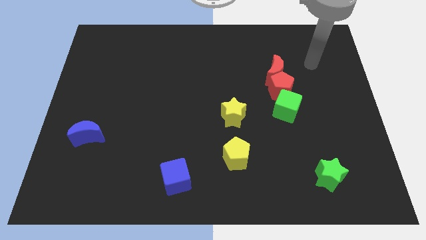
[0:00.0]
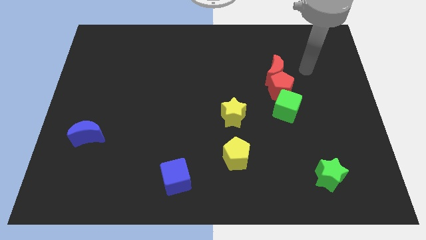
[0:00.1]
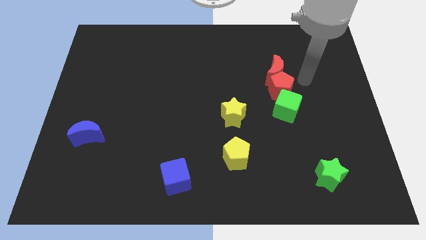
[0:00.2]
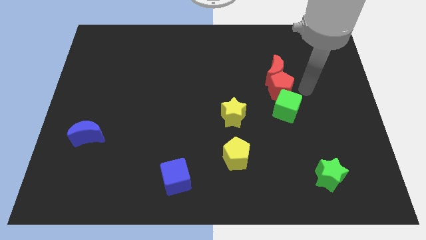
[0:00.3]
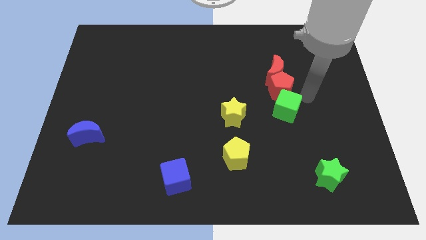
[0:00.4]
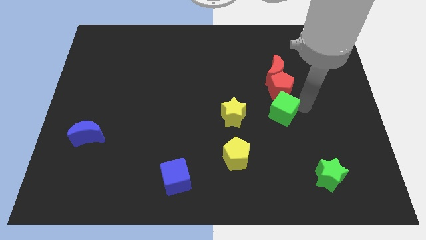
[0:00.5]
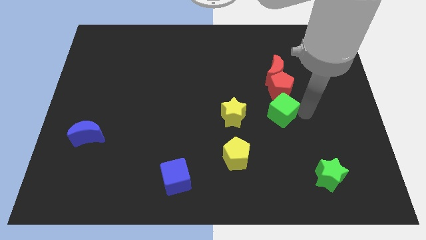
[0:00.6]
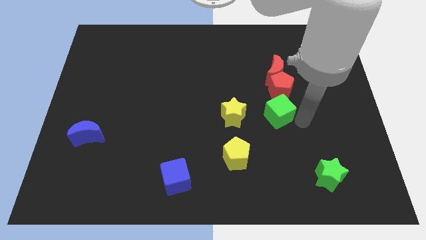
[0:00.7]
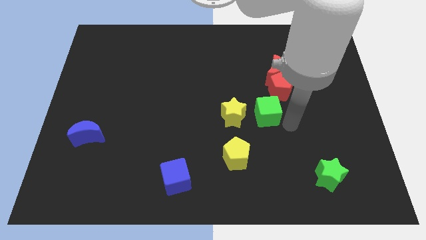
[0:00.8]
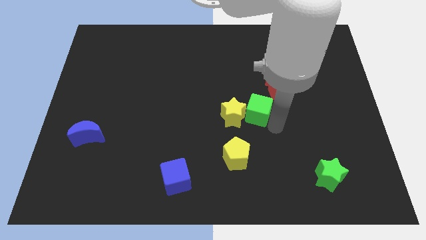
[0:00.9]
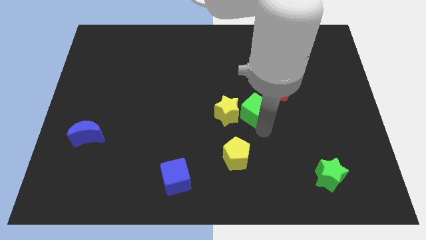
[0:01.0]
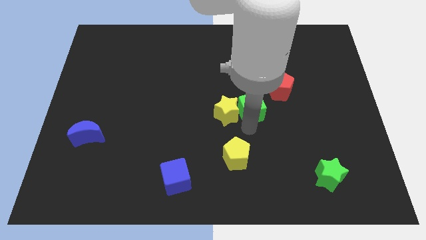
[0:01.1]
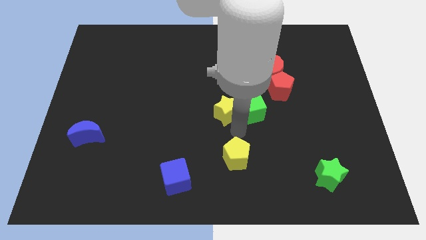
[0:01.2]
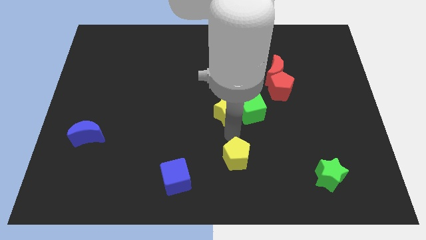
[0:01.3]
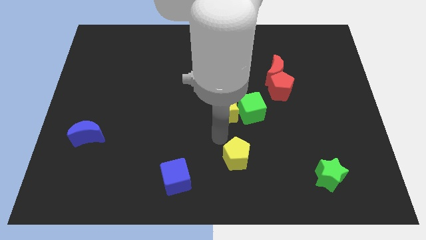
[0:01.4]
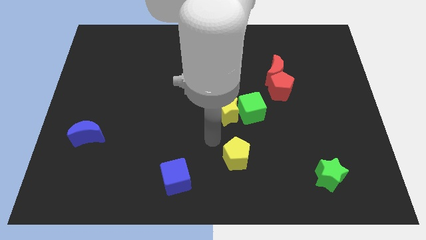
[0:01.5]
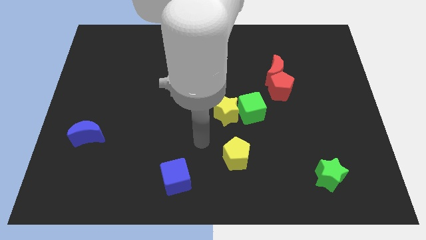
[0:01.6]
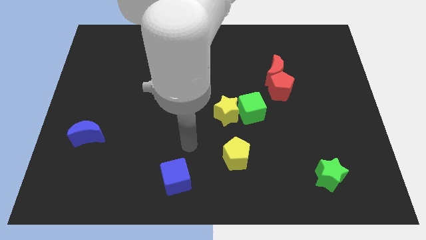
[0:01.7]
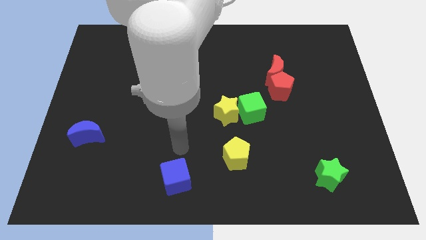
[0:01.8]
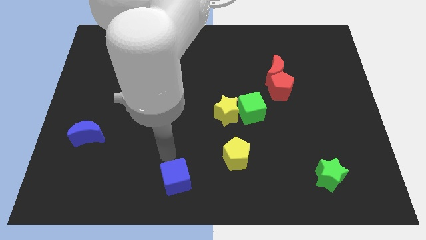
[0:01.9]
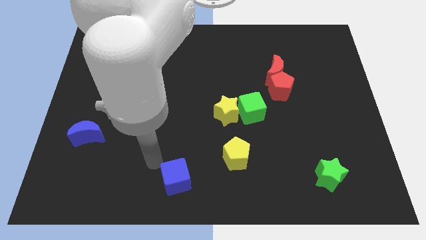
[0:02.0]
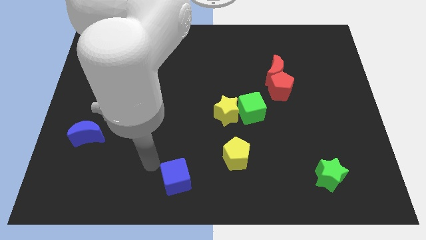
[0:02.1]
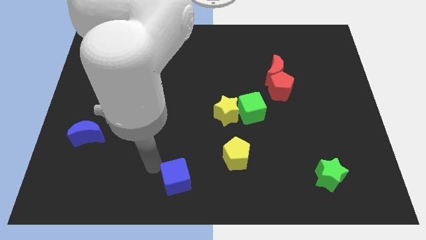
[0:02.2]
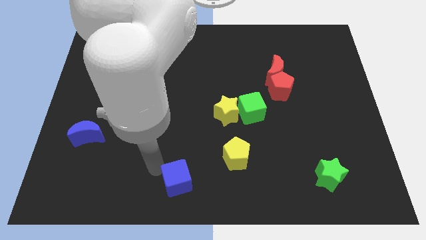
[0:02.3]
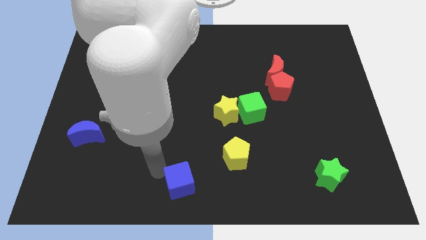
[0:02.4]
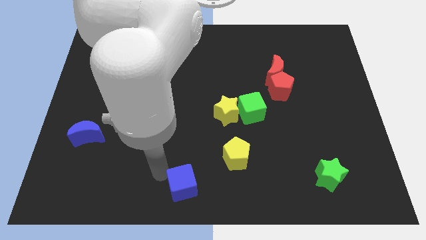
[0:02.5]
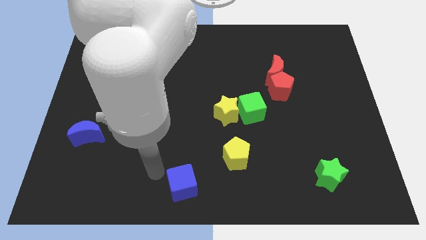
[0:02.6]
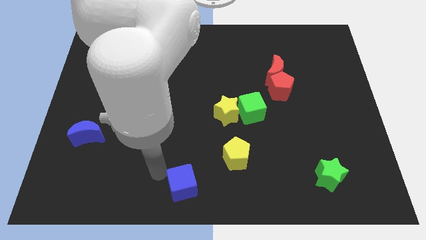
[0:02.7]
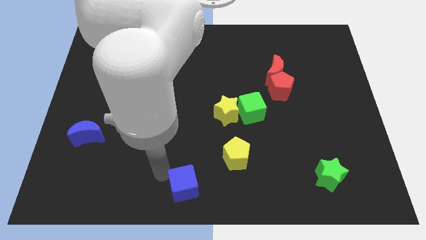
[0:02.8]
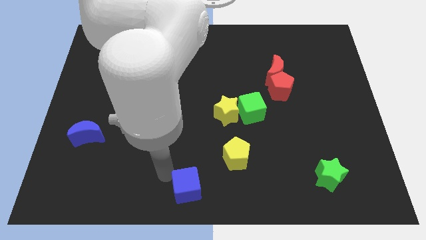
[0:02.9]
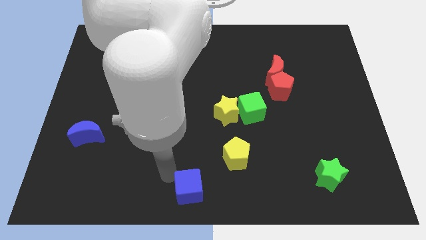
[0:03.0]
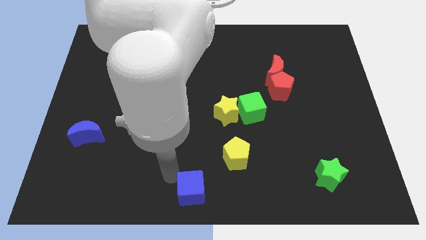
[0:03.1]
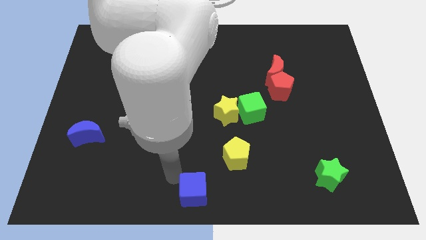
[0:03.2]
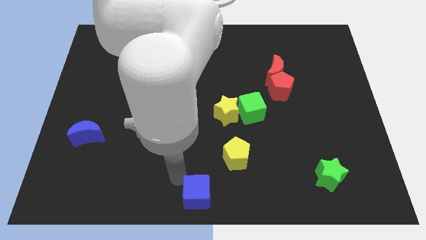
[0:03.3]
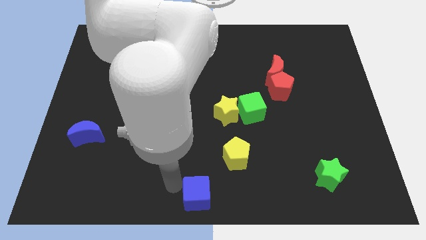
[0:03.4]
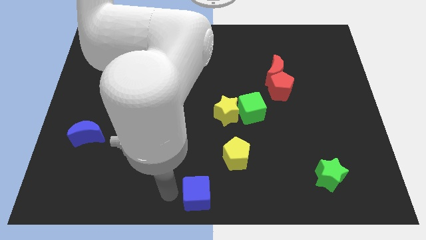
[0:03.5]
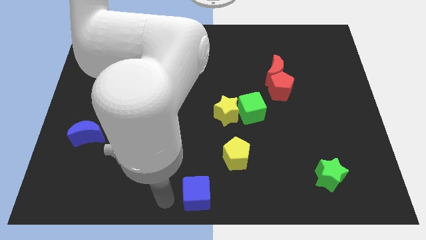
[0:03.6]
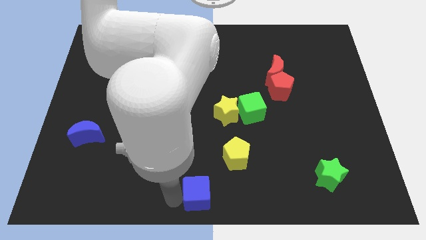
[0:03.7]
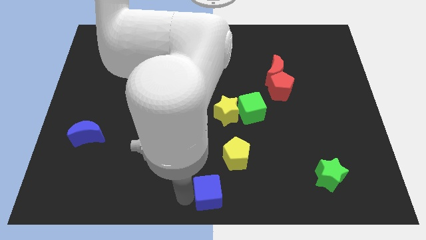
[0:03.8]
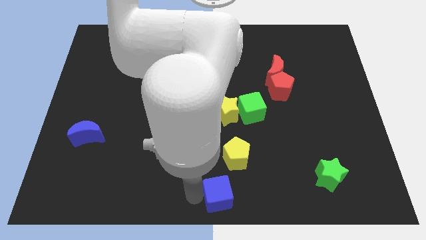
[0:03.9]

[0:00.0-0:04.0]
slide the blue cube a little bit right

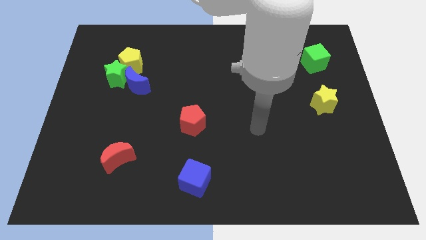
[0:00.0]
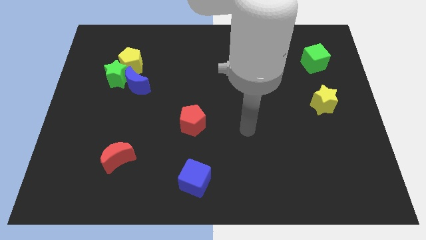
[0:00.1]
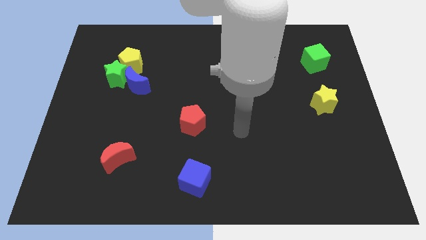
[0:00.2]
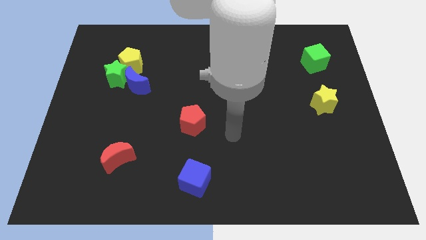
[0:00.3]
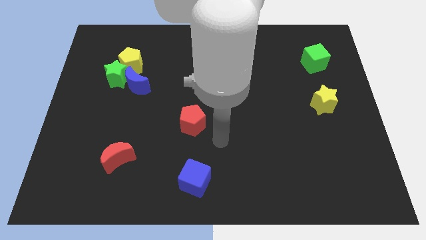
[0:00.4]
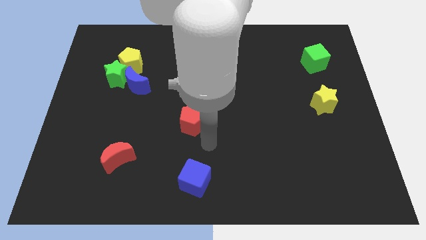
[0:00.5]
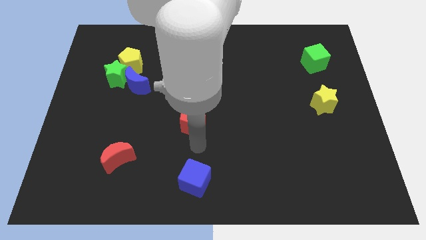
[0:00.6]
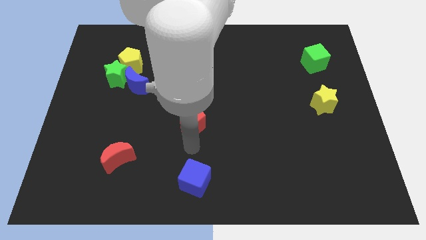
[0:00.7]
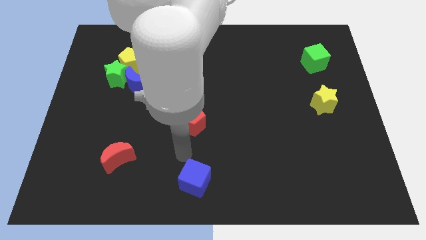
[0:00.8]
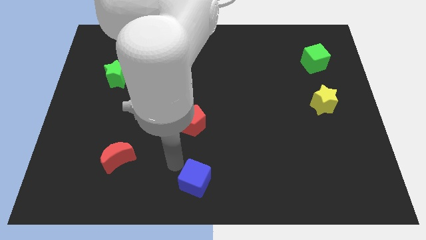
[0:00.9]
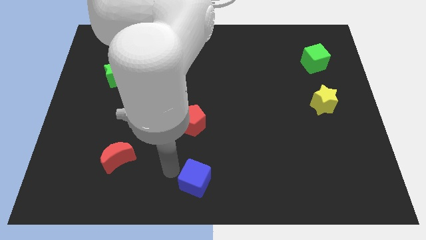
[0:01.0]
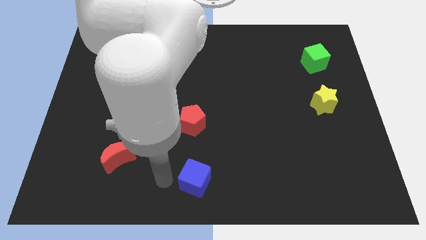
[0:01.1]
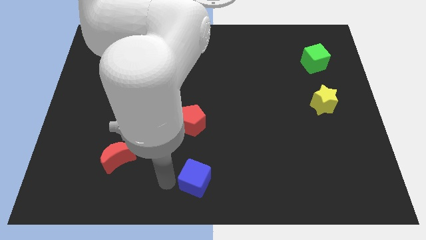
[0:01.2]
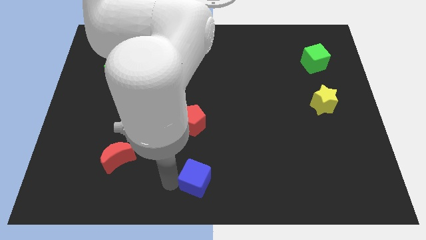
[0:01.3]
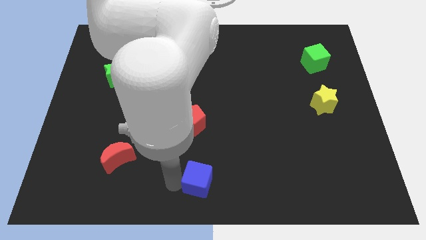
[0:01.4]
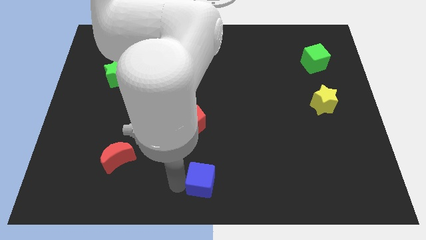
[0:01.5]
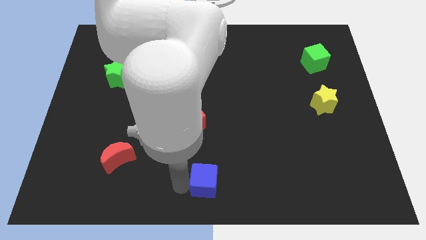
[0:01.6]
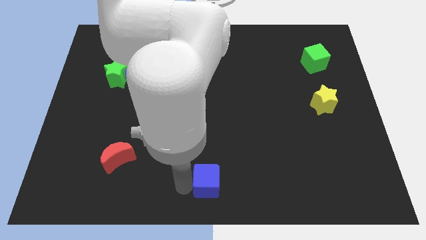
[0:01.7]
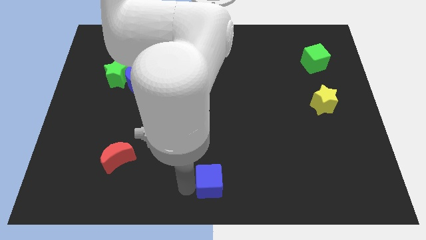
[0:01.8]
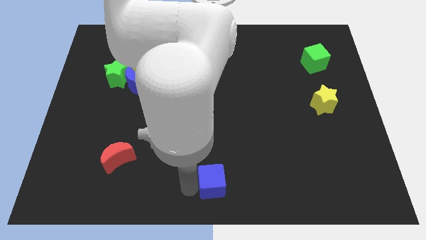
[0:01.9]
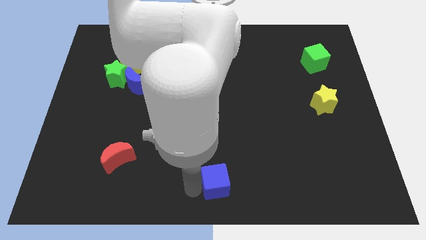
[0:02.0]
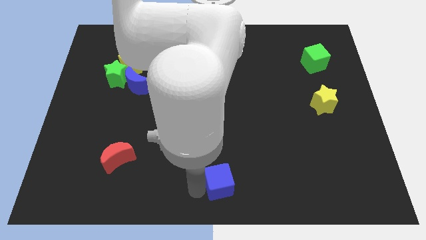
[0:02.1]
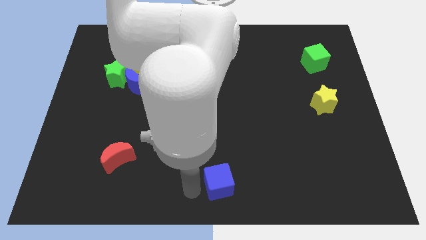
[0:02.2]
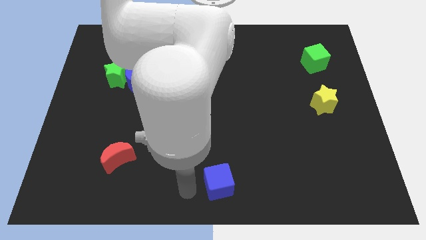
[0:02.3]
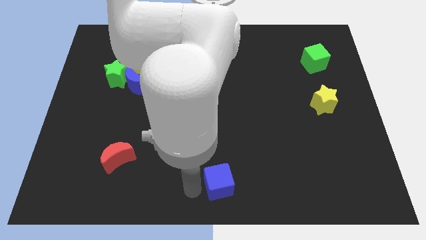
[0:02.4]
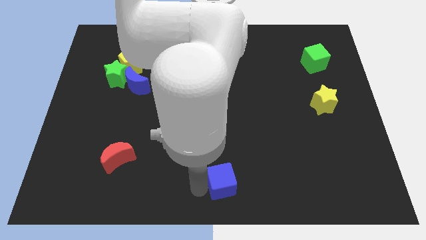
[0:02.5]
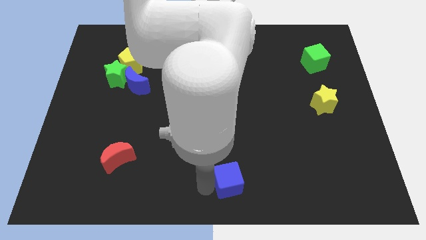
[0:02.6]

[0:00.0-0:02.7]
push the blue cube right slightly

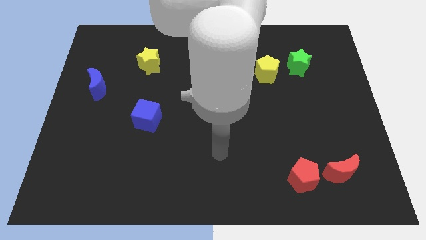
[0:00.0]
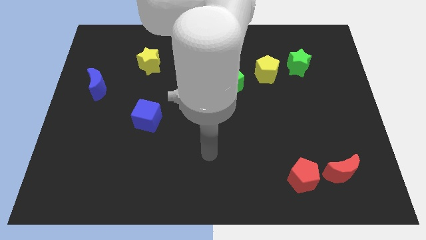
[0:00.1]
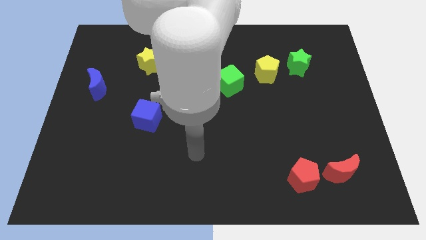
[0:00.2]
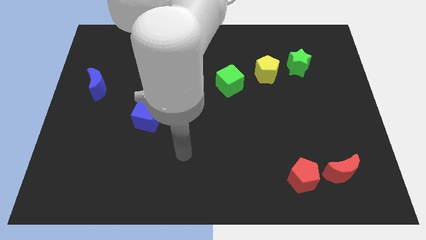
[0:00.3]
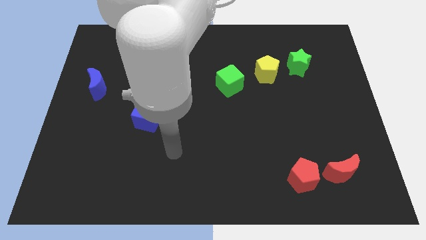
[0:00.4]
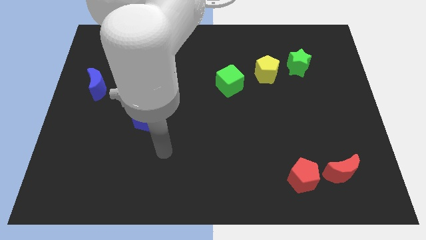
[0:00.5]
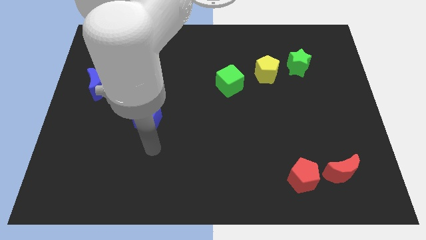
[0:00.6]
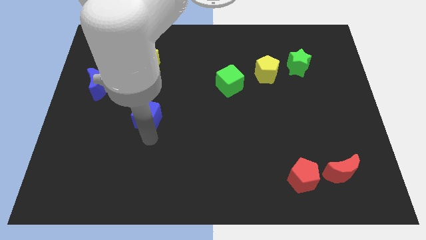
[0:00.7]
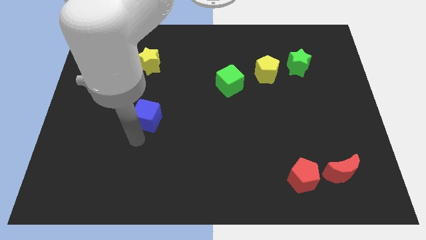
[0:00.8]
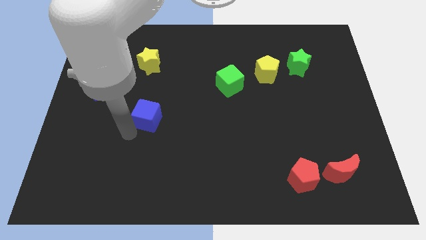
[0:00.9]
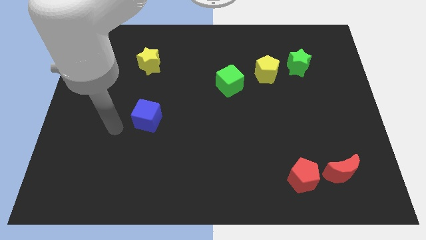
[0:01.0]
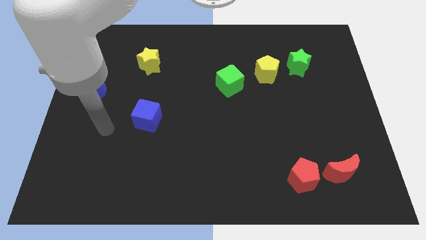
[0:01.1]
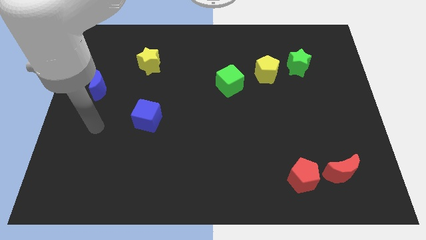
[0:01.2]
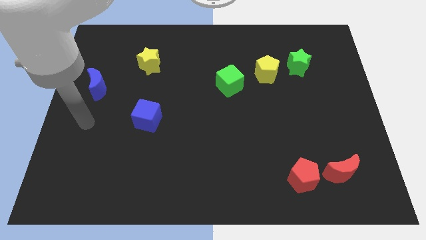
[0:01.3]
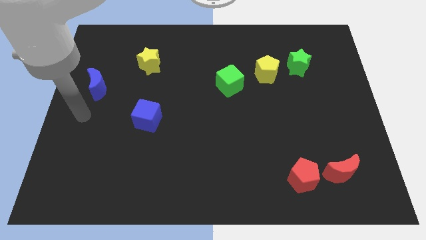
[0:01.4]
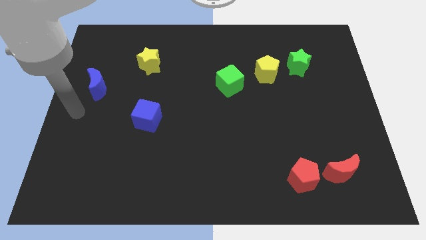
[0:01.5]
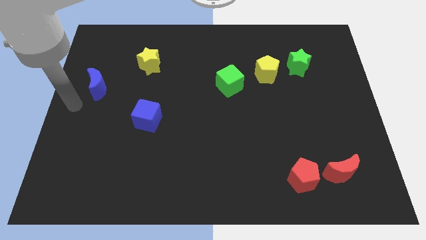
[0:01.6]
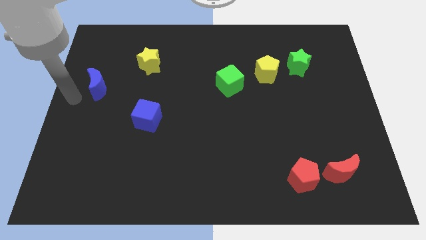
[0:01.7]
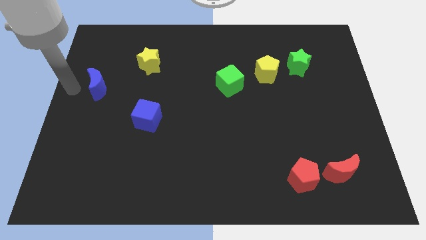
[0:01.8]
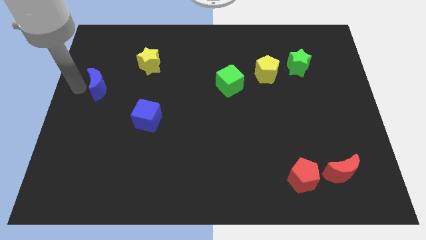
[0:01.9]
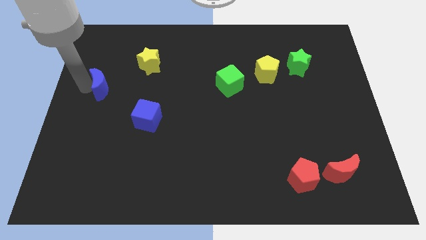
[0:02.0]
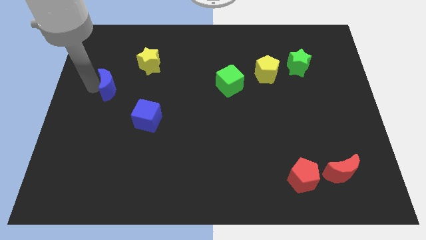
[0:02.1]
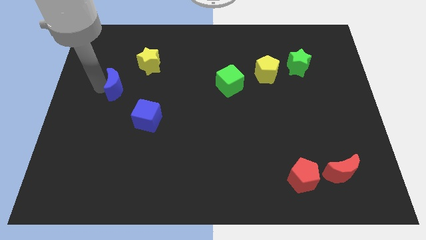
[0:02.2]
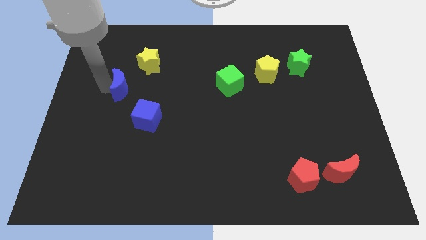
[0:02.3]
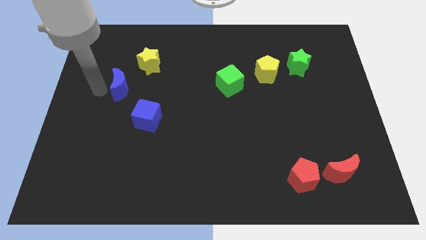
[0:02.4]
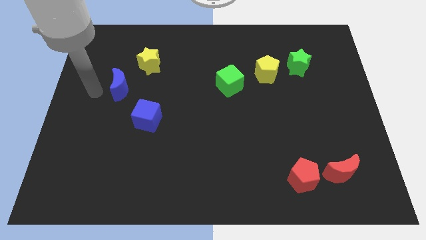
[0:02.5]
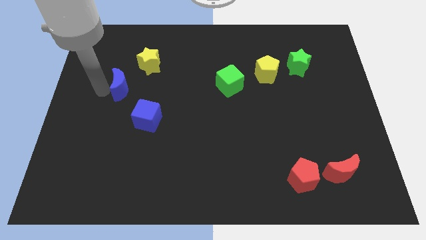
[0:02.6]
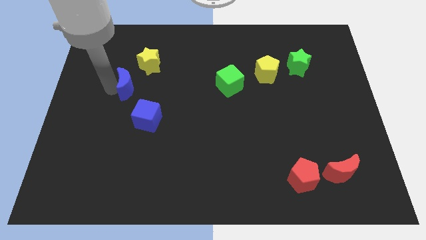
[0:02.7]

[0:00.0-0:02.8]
push the blue moon right a little bit
